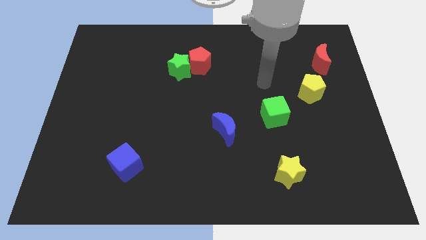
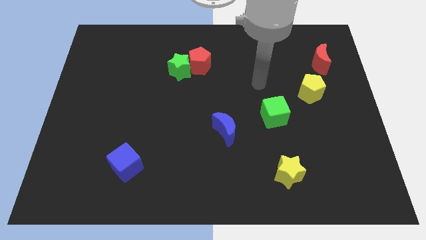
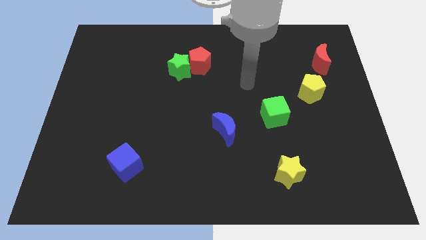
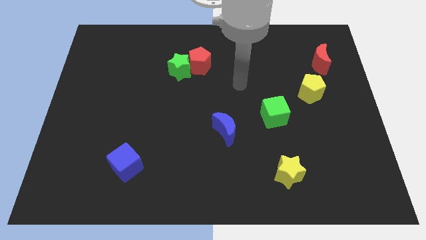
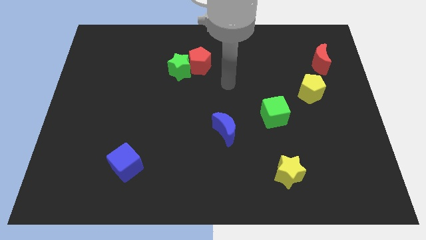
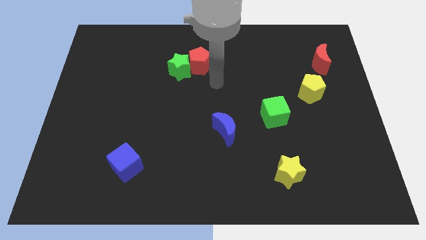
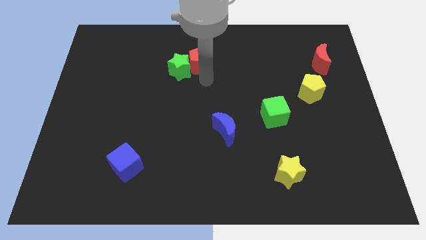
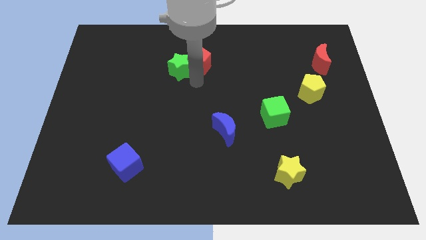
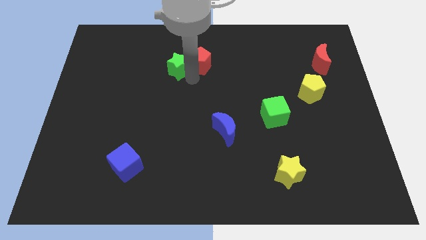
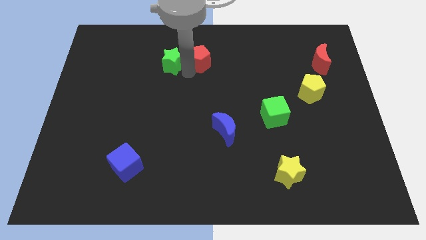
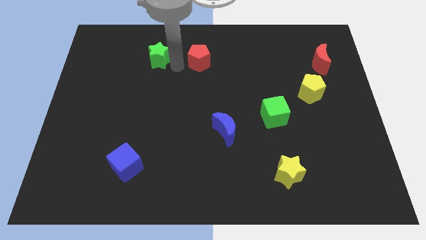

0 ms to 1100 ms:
pull the red pentagon apart from the green star

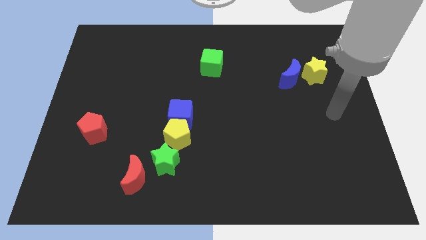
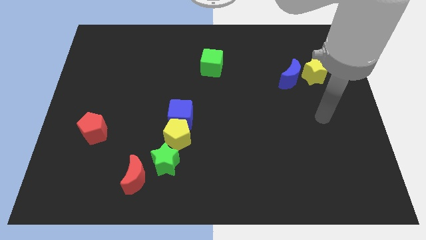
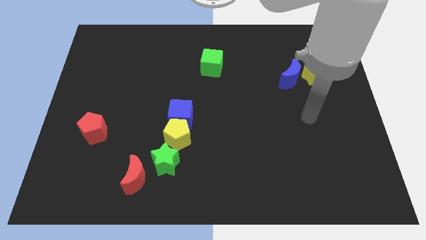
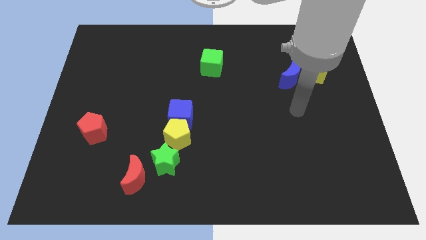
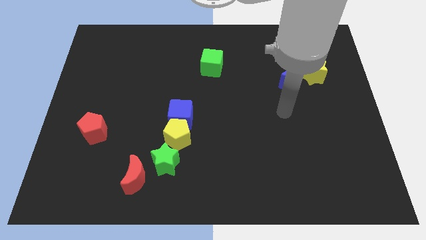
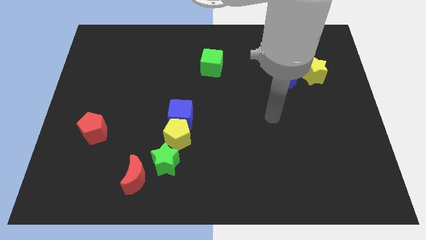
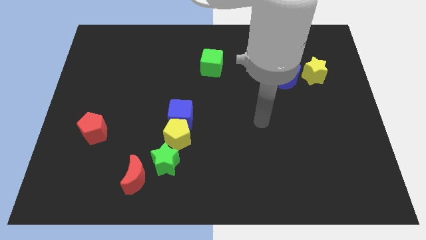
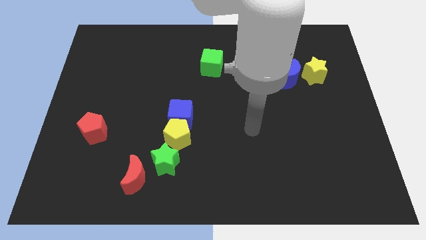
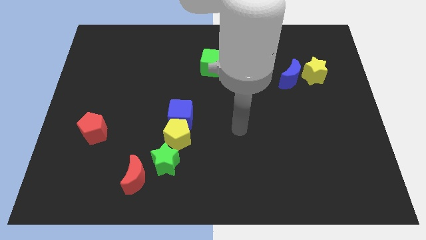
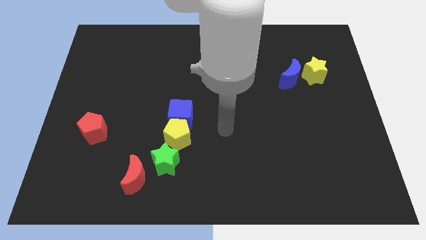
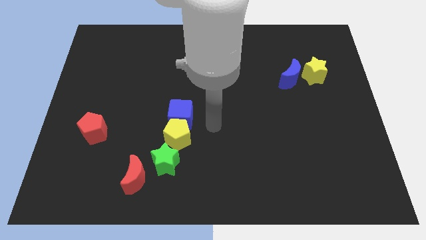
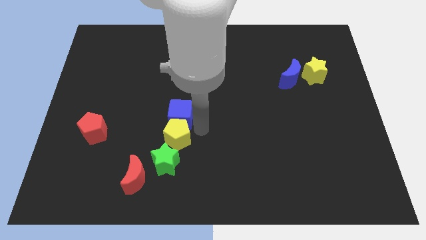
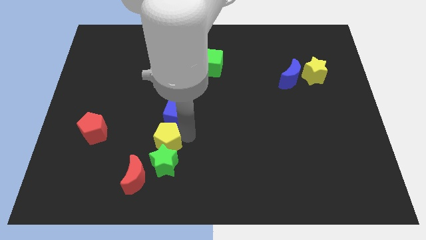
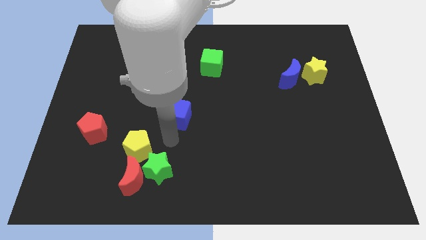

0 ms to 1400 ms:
separate the blue cube from the yellow pentagon

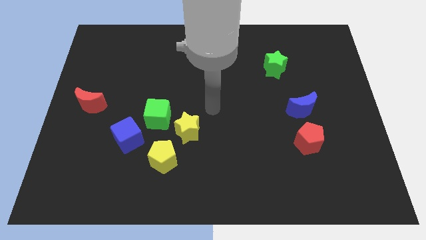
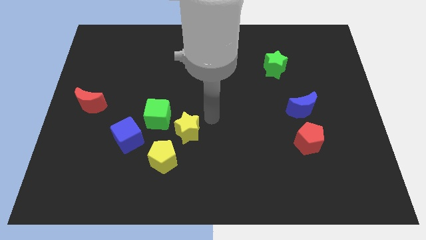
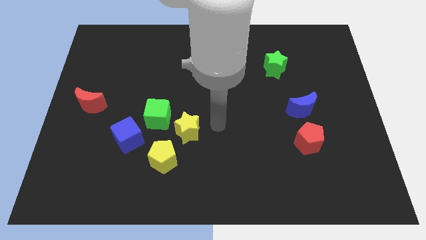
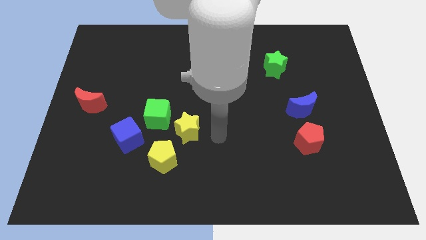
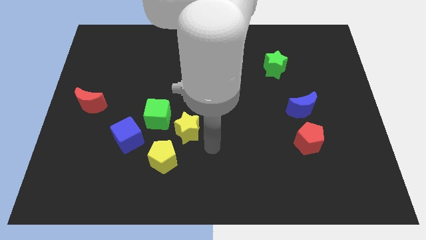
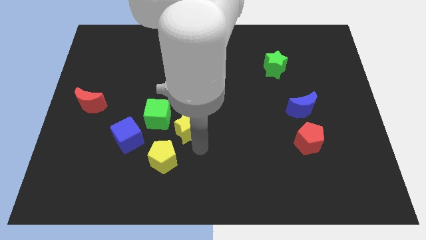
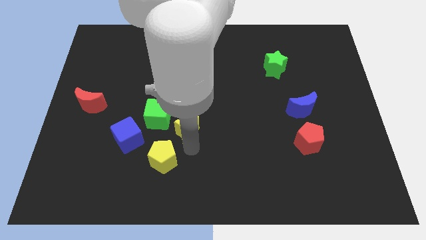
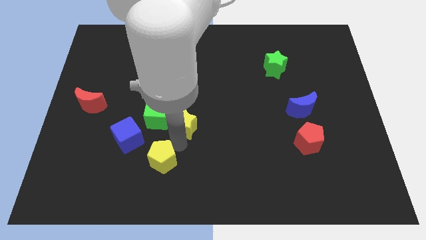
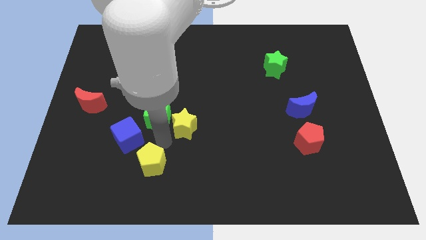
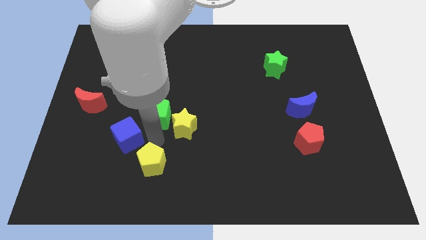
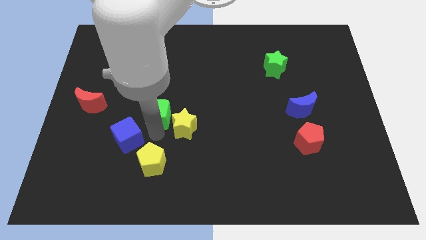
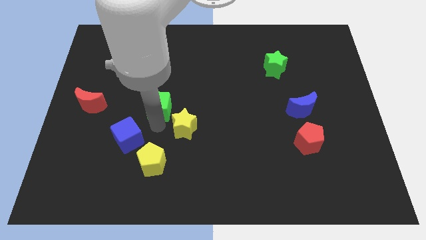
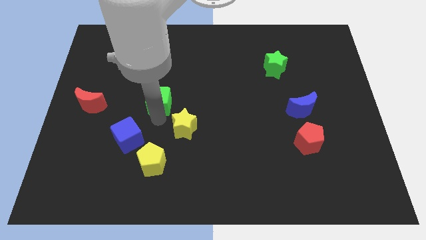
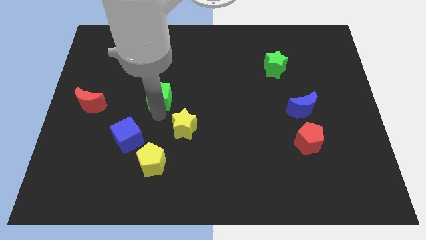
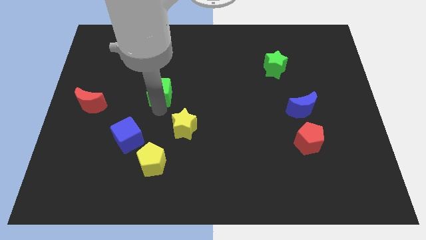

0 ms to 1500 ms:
separate the green cube from the yellow star and blue cube

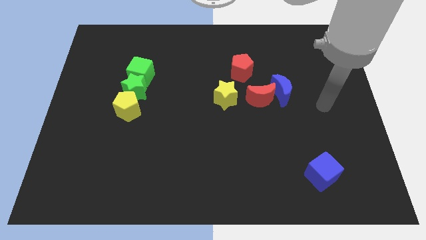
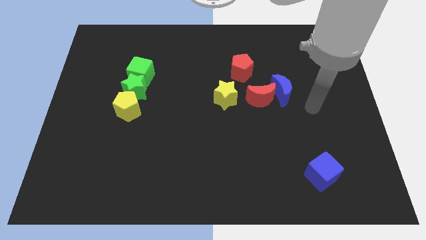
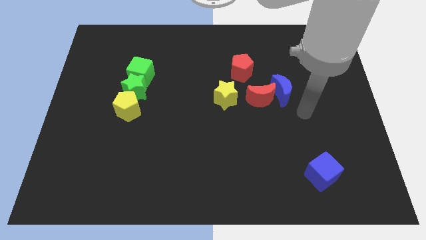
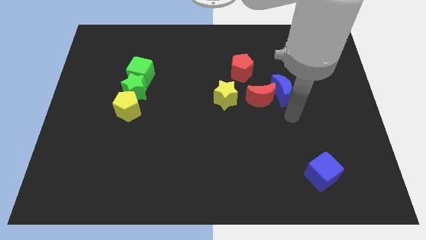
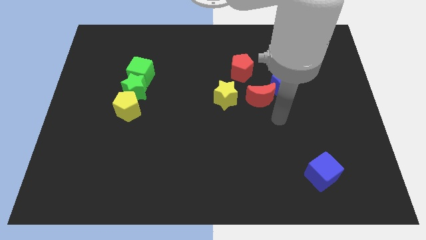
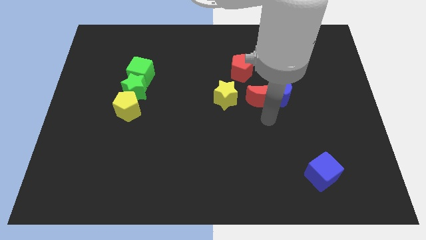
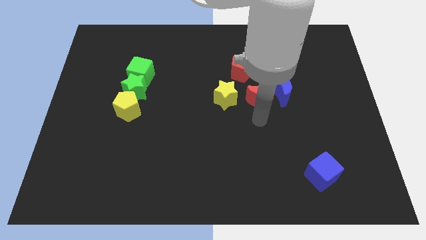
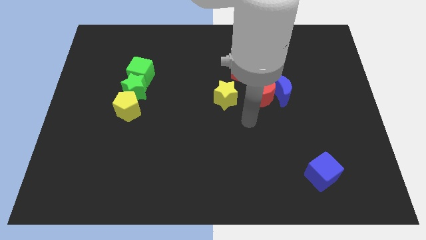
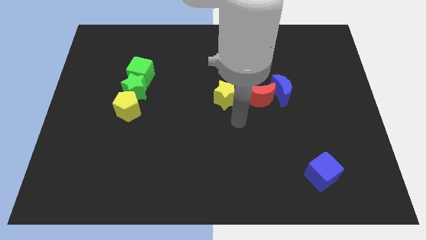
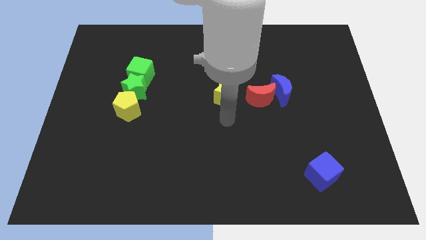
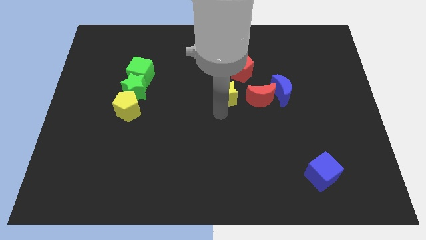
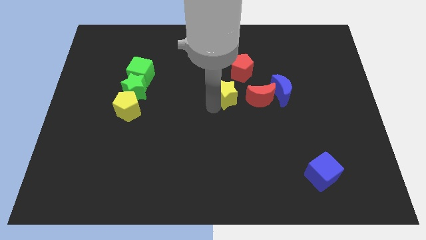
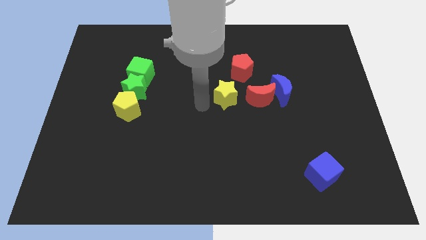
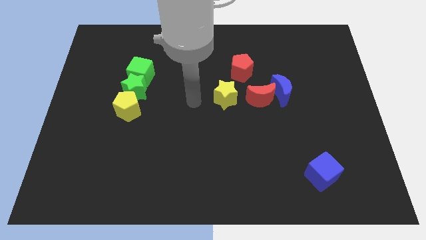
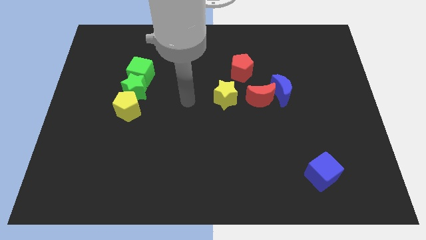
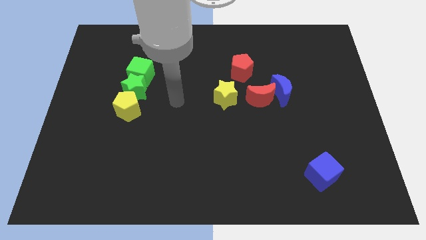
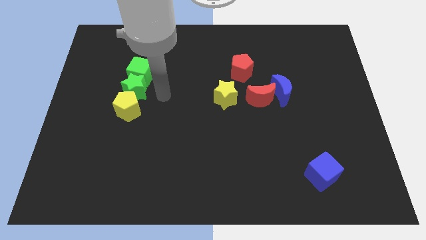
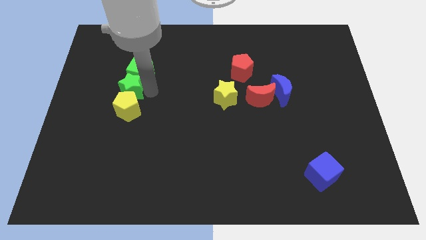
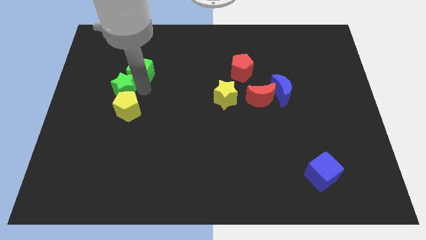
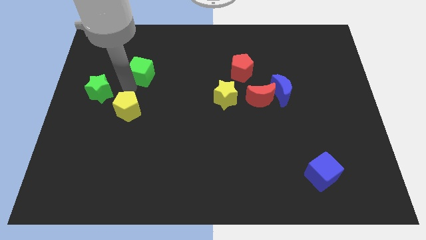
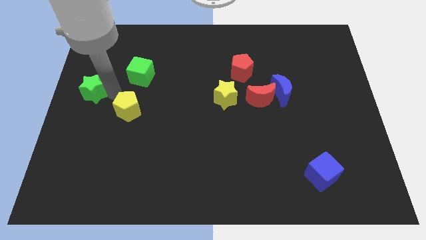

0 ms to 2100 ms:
separate the yellow pentagon from the green star

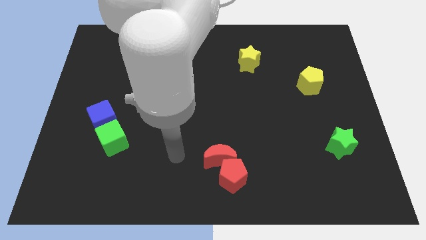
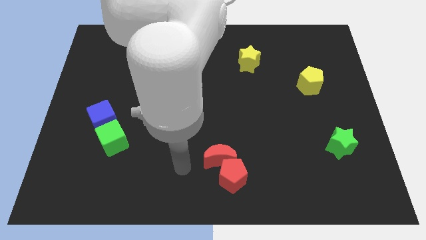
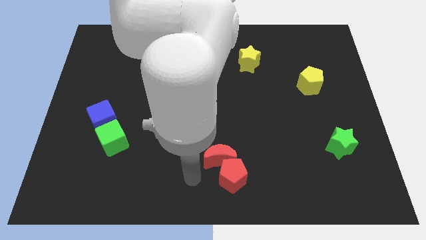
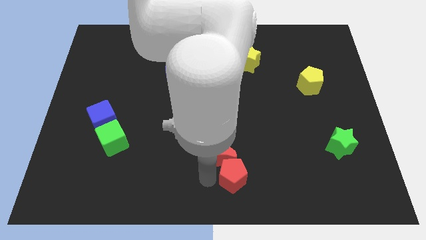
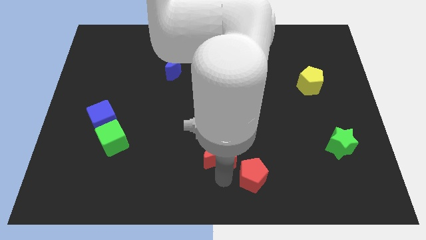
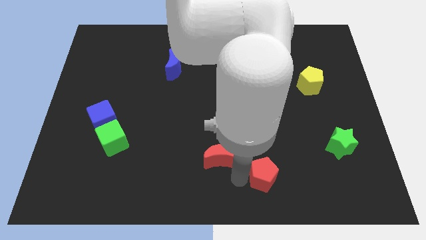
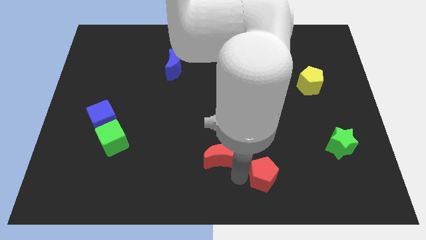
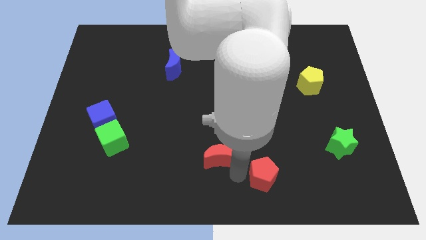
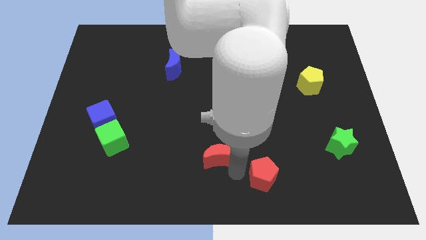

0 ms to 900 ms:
separate the red moon from the red pentagon

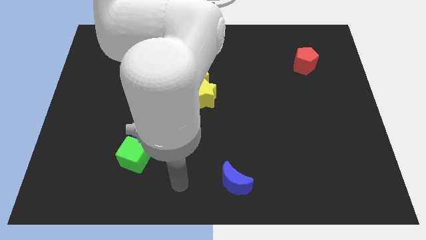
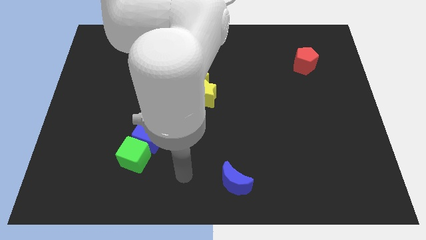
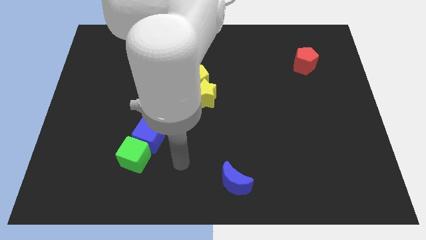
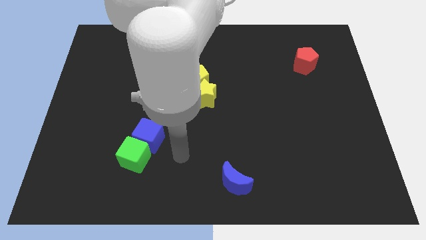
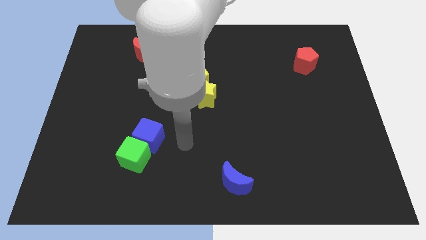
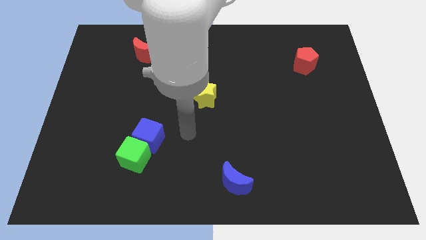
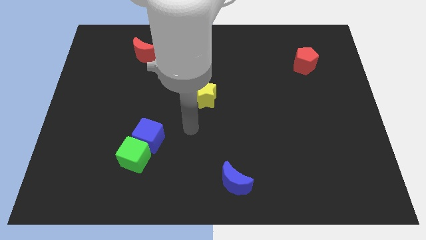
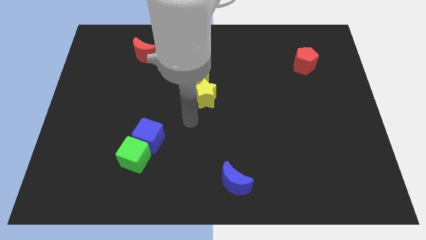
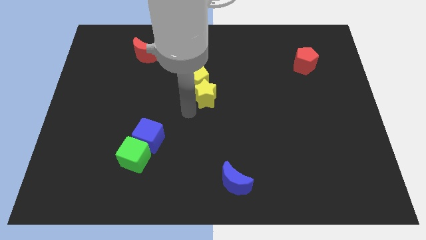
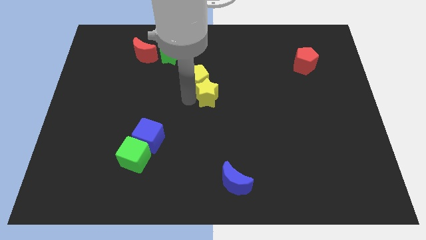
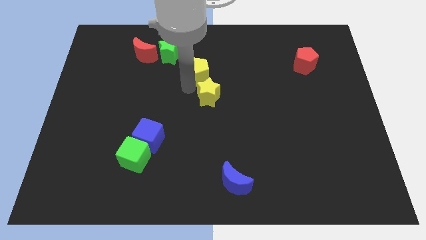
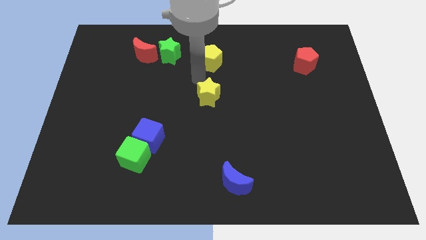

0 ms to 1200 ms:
separate the yellow star from the yellow pentagon

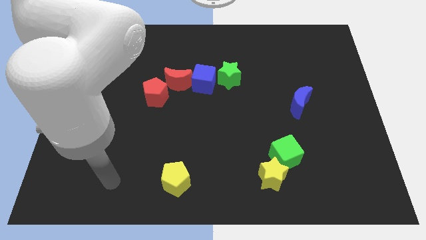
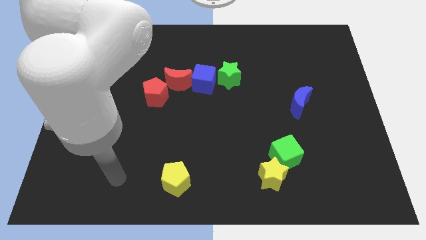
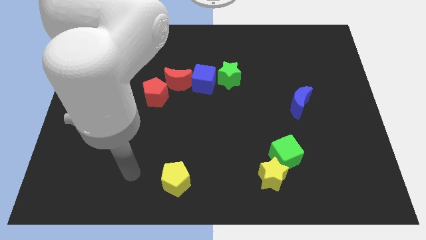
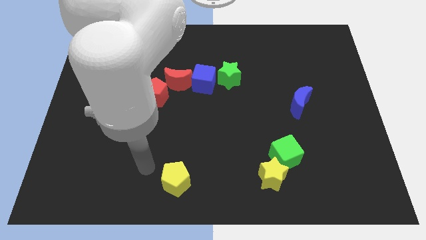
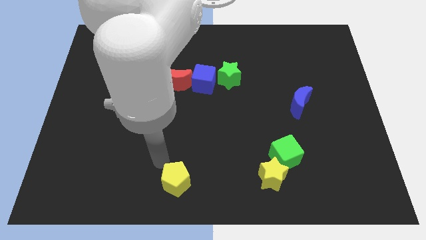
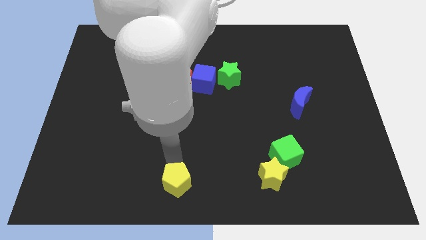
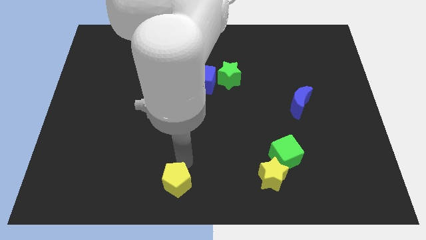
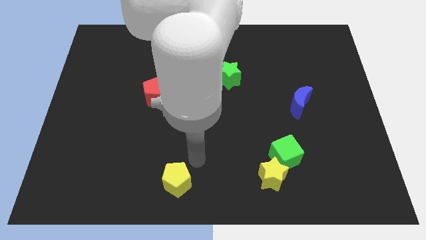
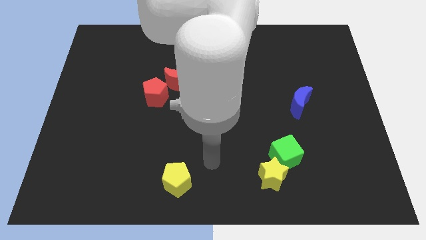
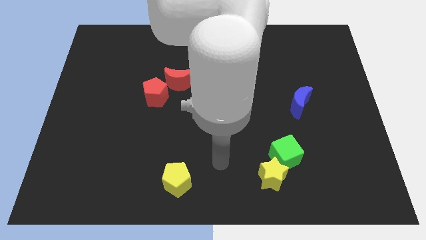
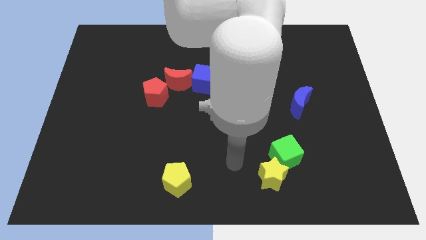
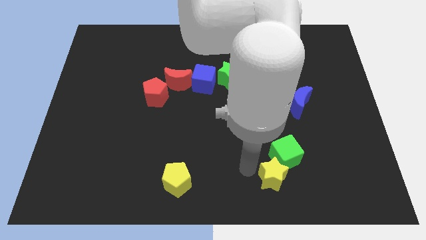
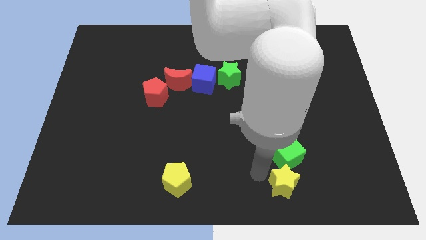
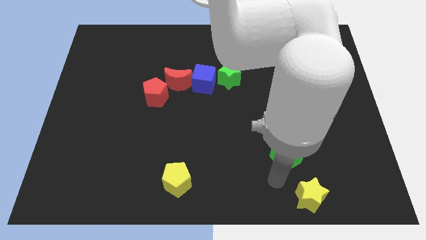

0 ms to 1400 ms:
move the green cube away from the yellow star
